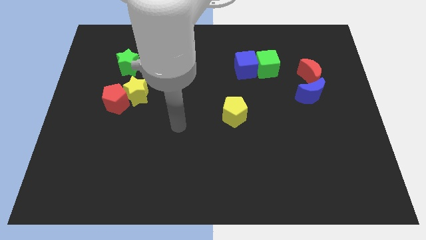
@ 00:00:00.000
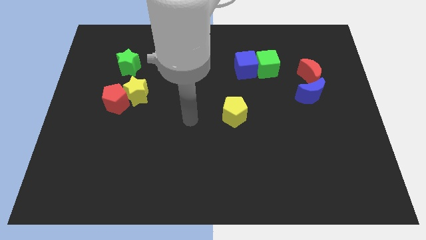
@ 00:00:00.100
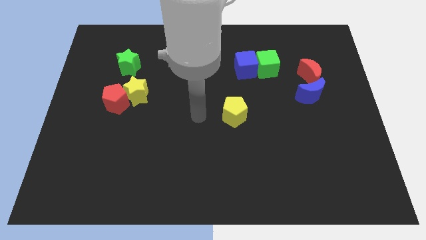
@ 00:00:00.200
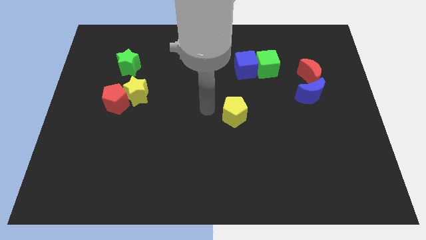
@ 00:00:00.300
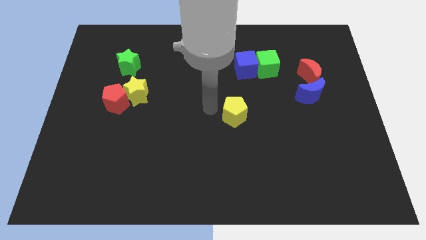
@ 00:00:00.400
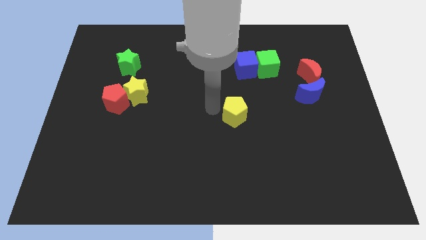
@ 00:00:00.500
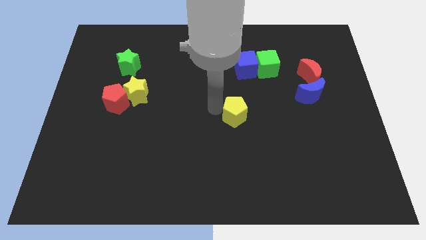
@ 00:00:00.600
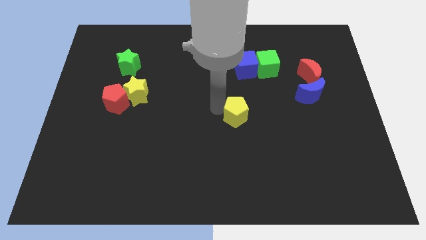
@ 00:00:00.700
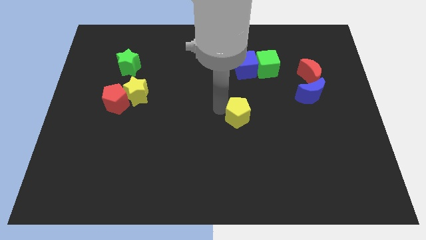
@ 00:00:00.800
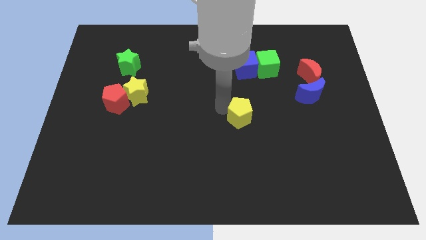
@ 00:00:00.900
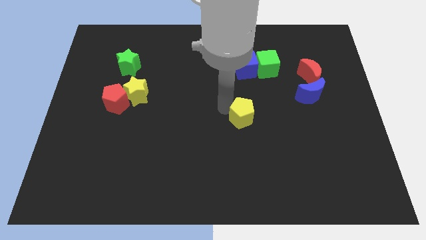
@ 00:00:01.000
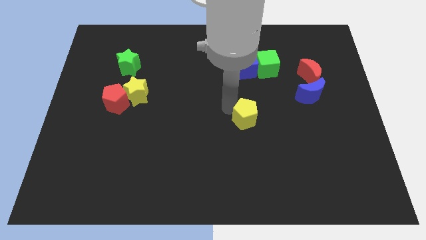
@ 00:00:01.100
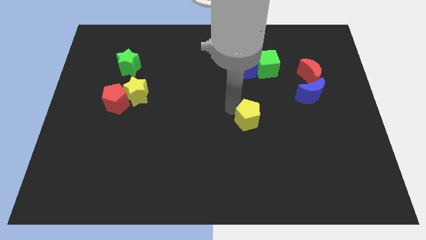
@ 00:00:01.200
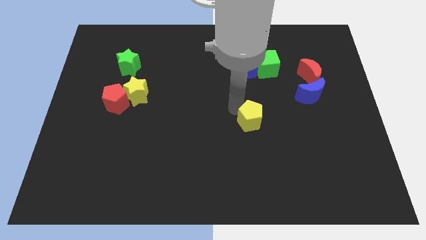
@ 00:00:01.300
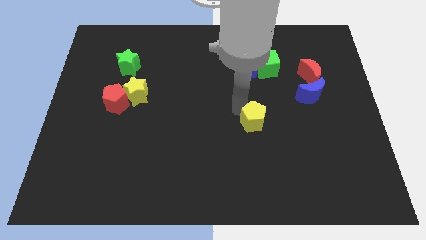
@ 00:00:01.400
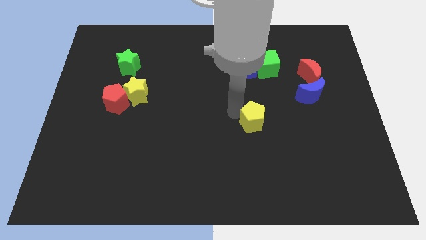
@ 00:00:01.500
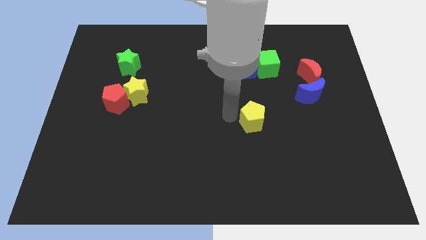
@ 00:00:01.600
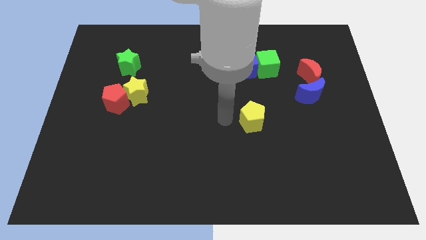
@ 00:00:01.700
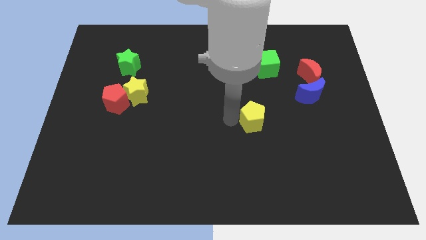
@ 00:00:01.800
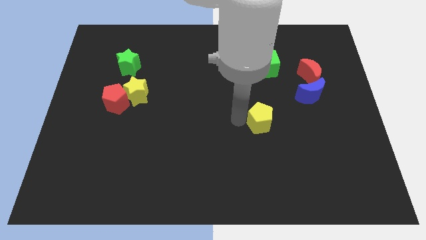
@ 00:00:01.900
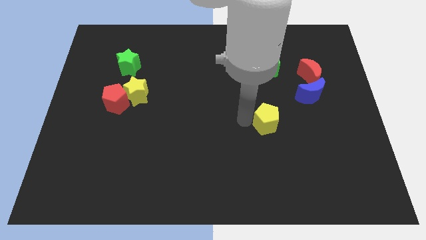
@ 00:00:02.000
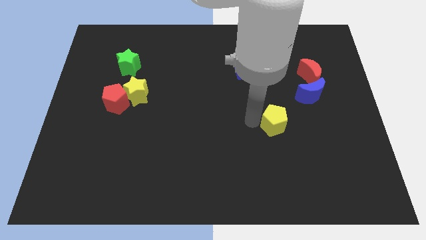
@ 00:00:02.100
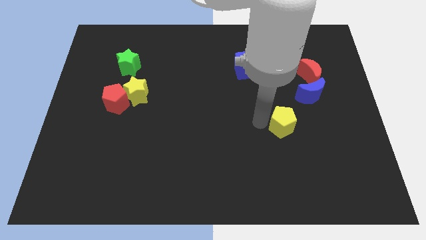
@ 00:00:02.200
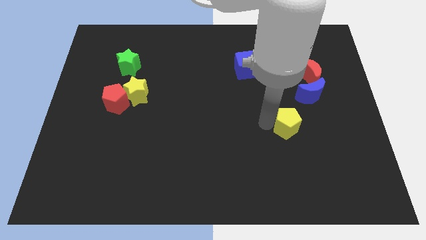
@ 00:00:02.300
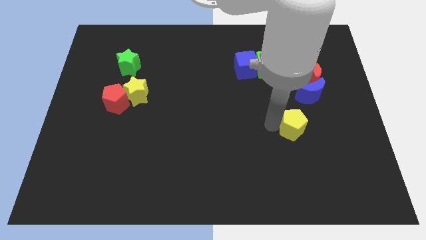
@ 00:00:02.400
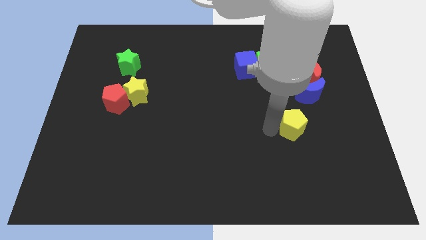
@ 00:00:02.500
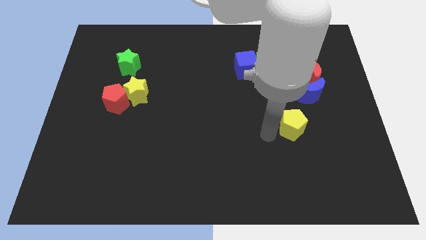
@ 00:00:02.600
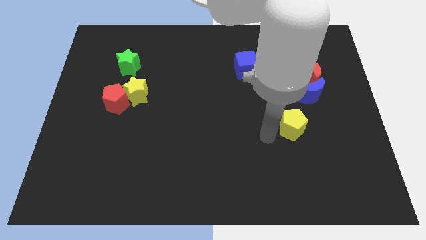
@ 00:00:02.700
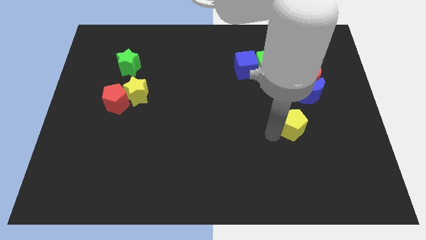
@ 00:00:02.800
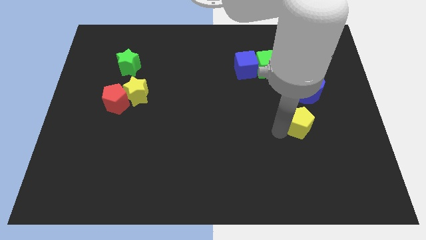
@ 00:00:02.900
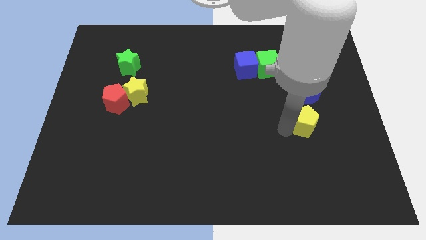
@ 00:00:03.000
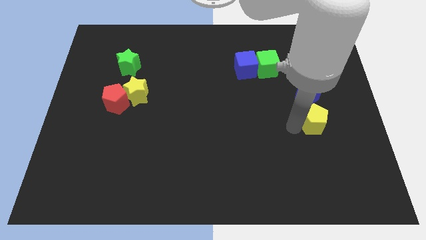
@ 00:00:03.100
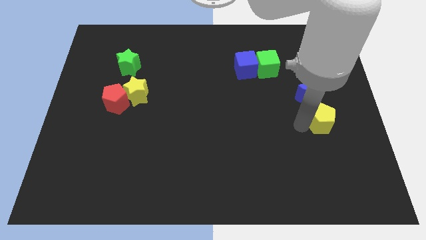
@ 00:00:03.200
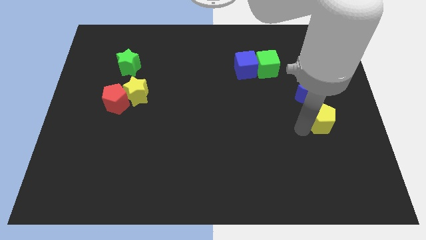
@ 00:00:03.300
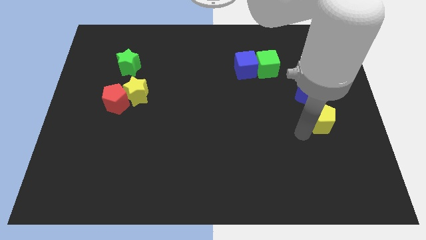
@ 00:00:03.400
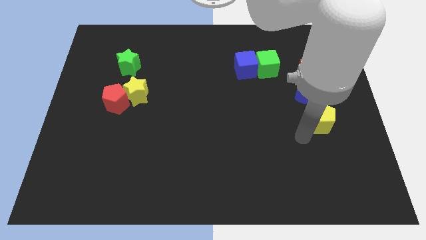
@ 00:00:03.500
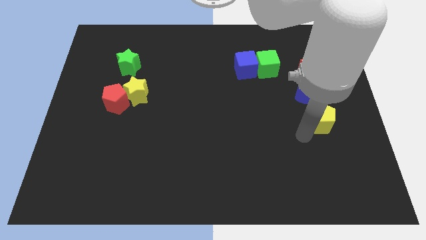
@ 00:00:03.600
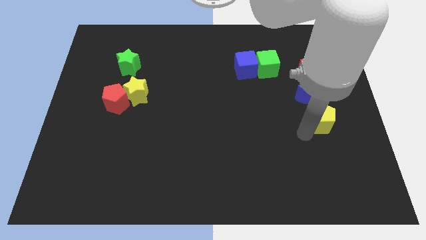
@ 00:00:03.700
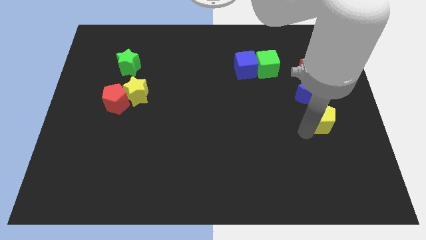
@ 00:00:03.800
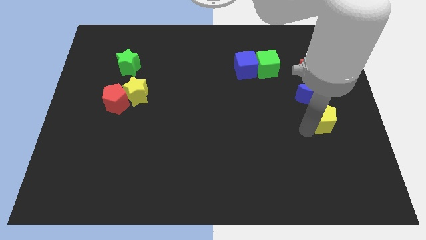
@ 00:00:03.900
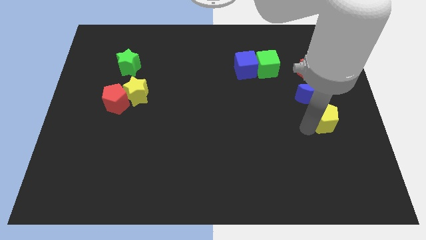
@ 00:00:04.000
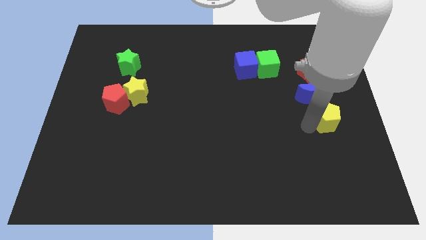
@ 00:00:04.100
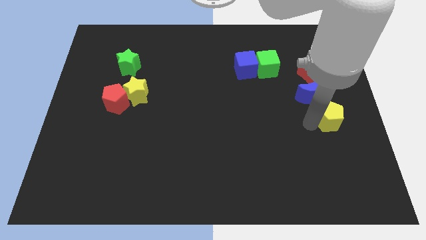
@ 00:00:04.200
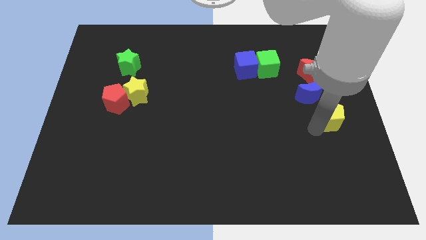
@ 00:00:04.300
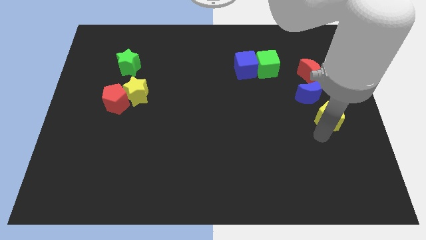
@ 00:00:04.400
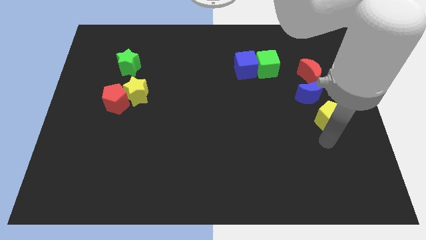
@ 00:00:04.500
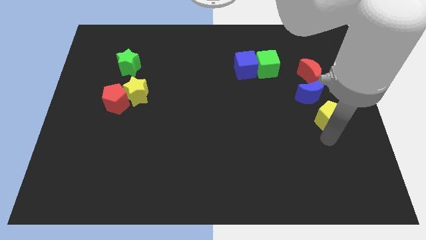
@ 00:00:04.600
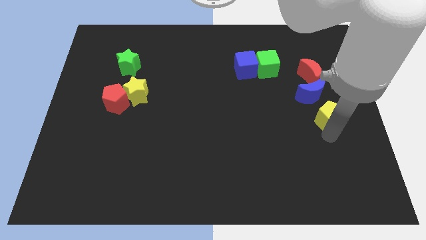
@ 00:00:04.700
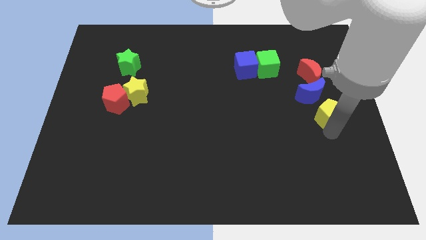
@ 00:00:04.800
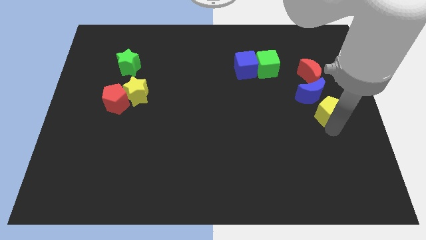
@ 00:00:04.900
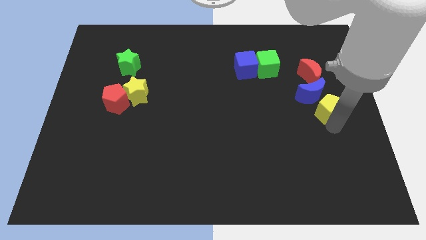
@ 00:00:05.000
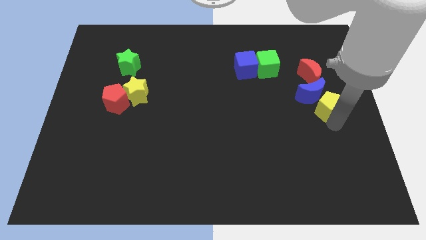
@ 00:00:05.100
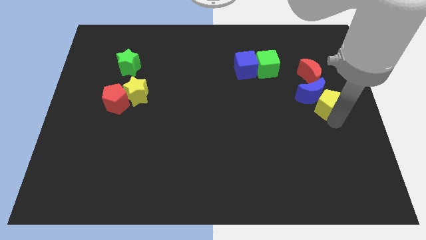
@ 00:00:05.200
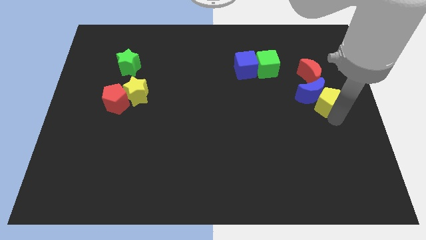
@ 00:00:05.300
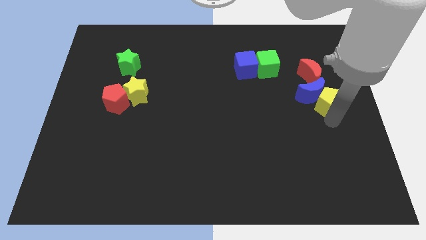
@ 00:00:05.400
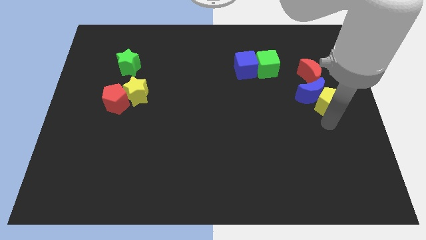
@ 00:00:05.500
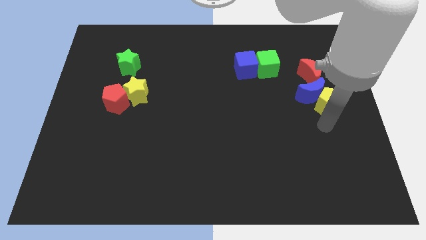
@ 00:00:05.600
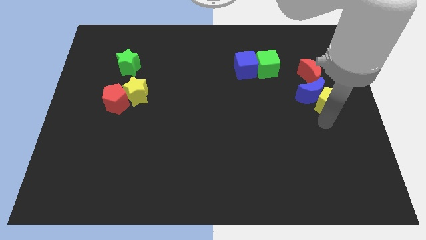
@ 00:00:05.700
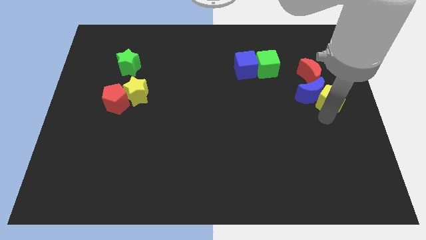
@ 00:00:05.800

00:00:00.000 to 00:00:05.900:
put the yellow pentagon diagonally up and to the right of the blue moon

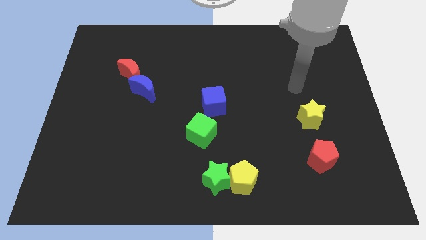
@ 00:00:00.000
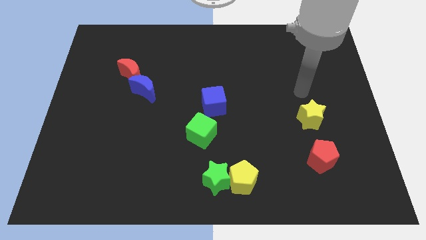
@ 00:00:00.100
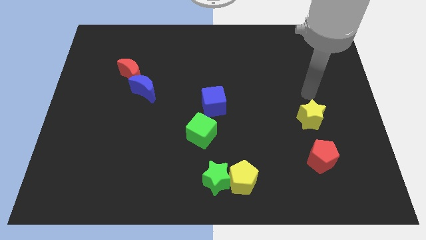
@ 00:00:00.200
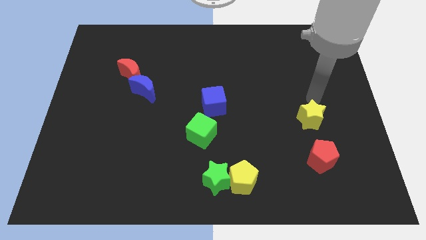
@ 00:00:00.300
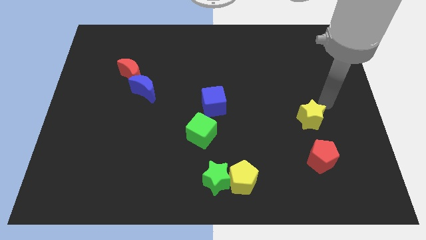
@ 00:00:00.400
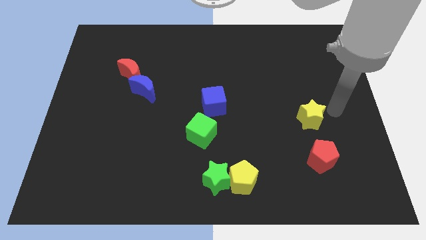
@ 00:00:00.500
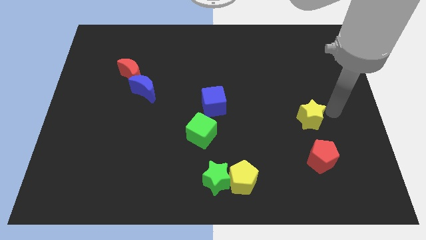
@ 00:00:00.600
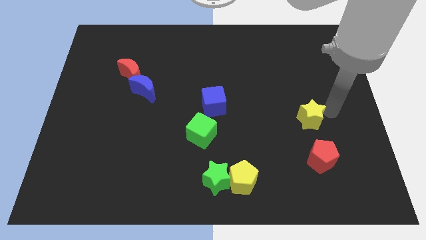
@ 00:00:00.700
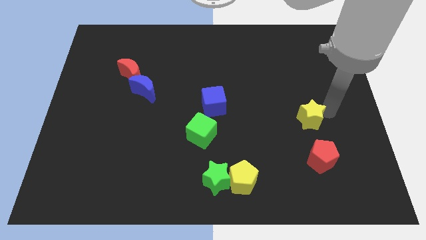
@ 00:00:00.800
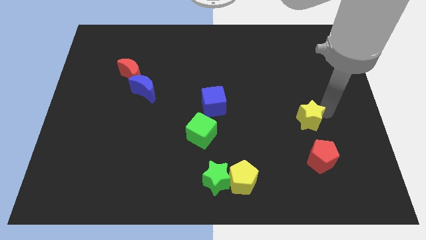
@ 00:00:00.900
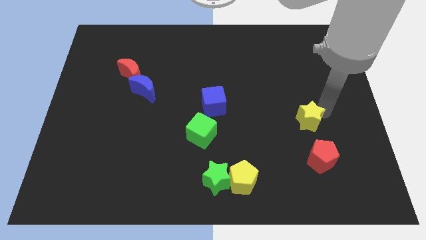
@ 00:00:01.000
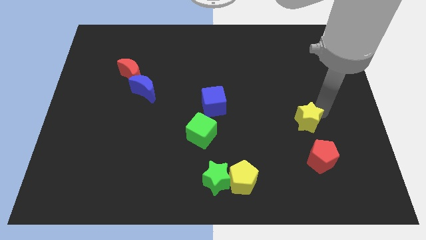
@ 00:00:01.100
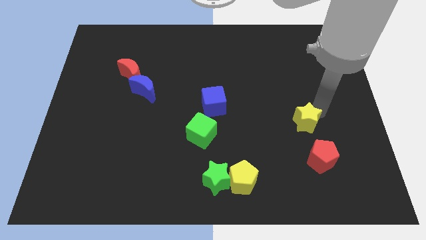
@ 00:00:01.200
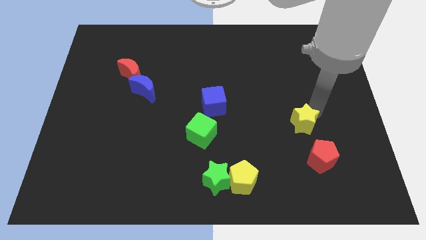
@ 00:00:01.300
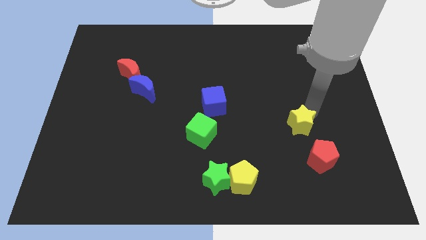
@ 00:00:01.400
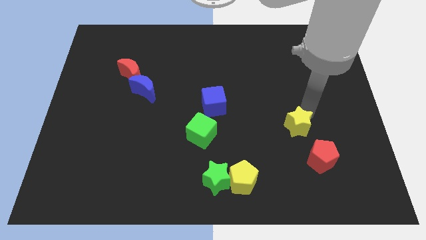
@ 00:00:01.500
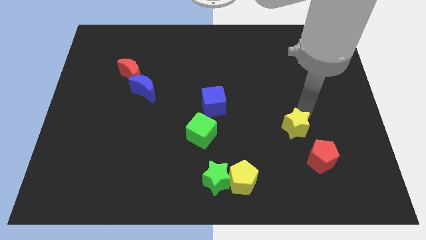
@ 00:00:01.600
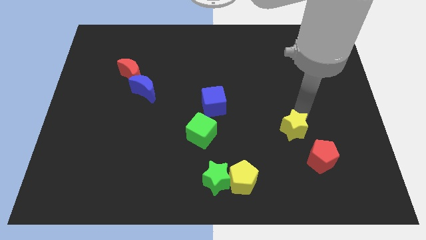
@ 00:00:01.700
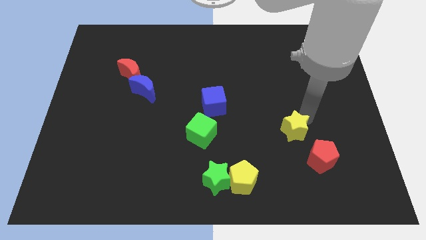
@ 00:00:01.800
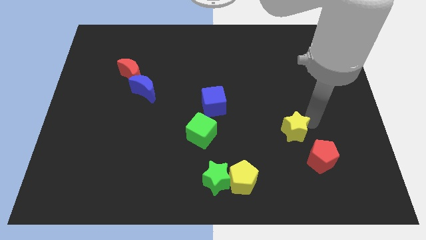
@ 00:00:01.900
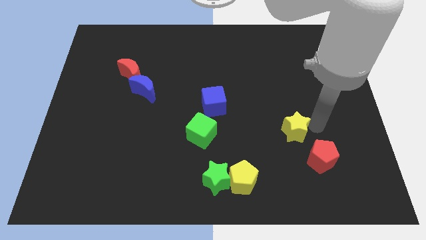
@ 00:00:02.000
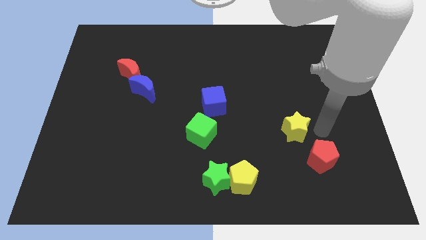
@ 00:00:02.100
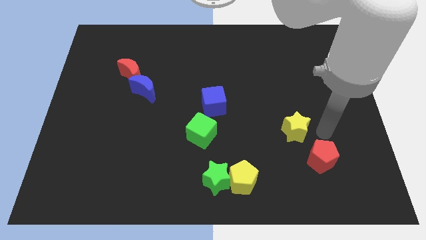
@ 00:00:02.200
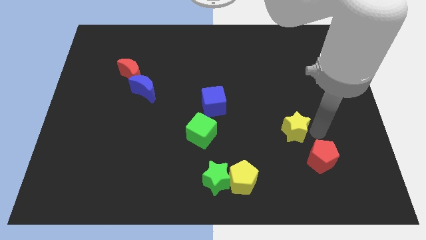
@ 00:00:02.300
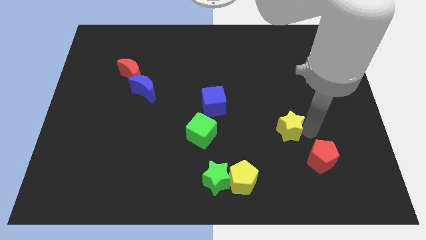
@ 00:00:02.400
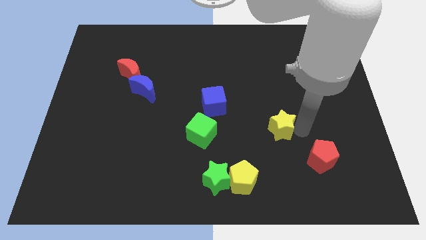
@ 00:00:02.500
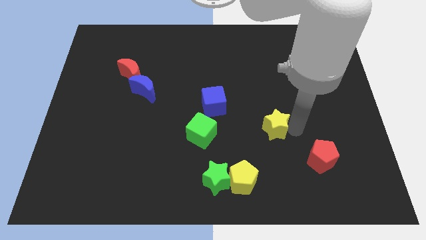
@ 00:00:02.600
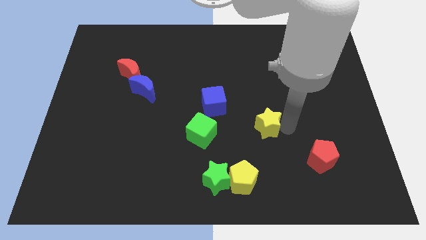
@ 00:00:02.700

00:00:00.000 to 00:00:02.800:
push the yellow star right of the green cube
